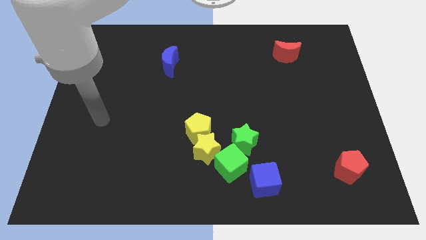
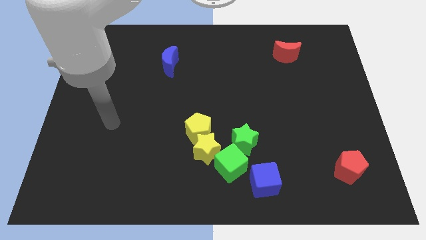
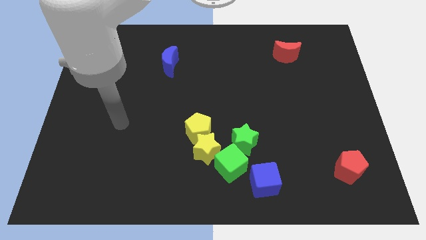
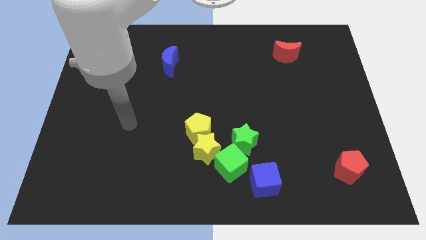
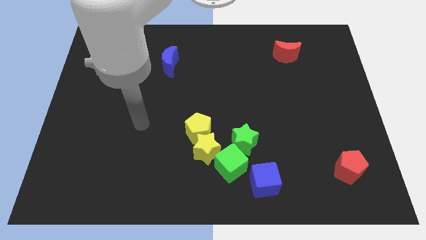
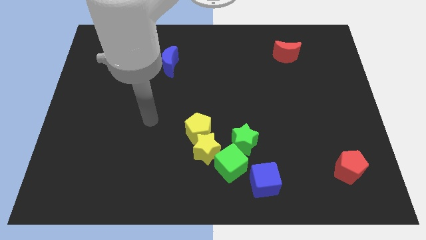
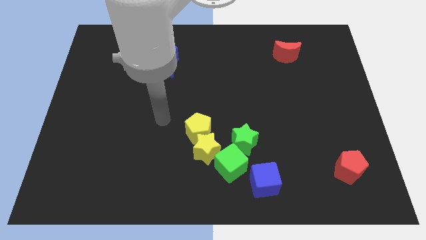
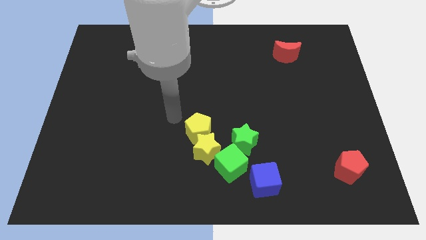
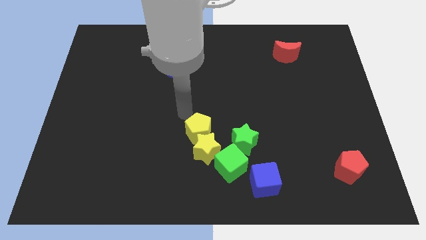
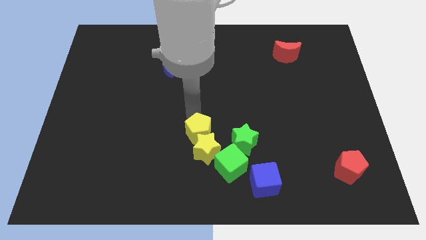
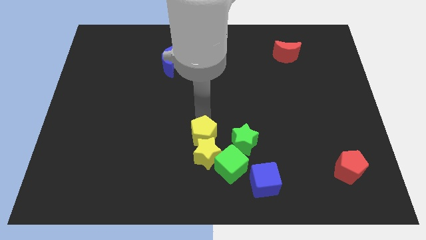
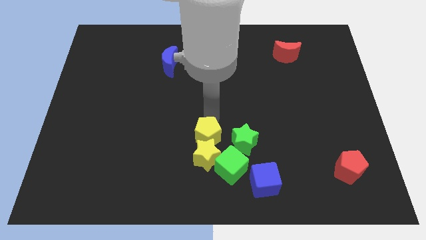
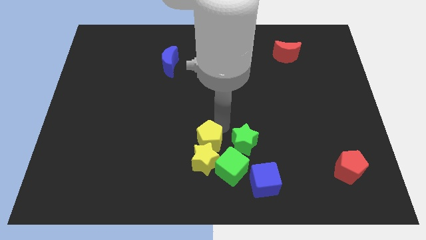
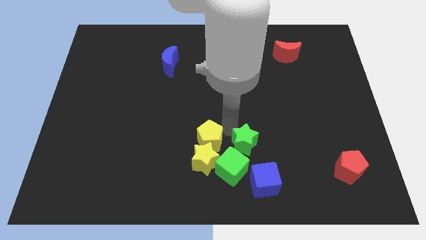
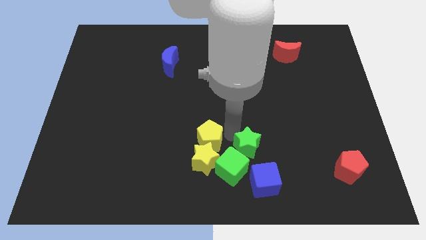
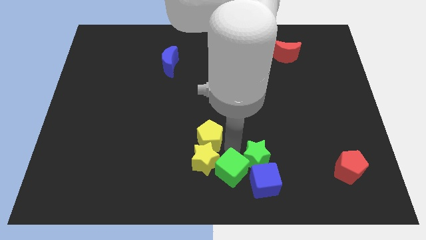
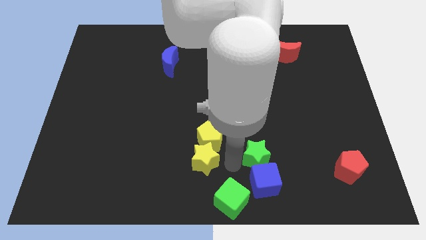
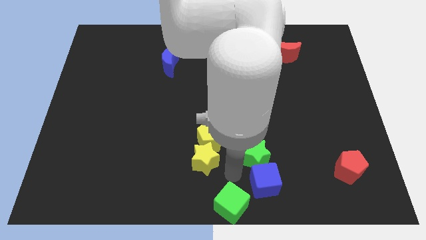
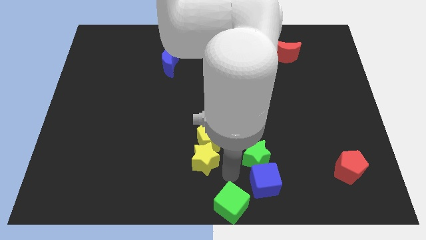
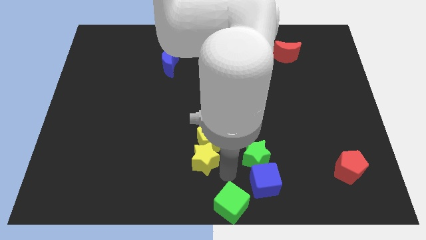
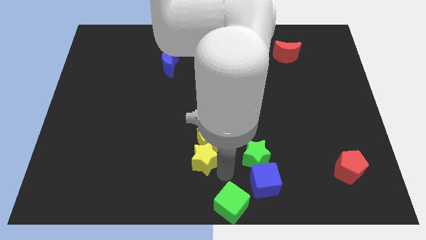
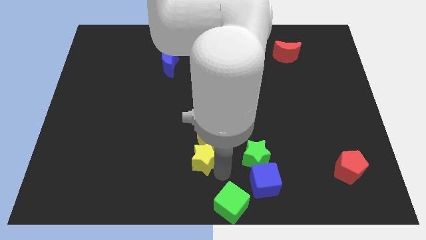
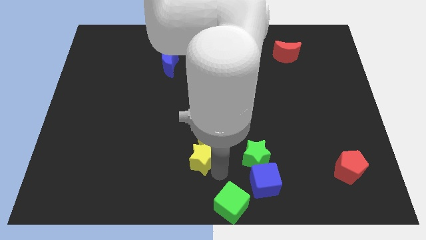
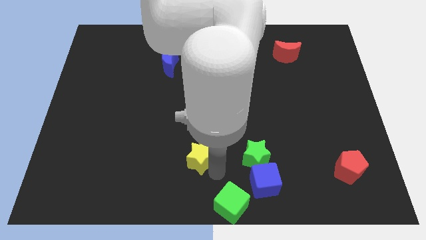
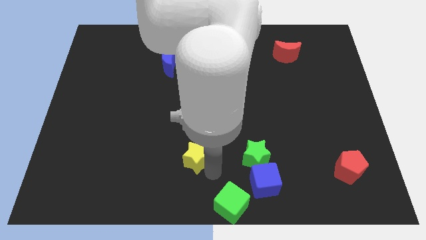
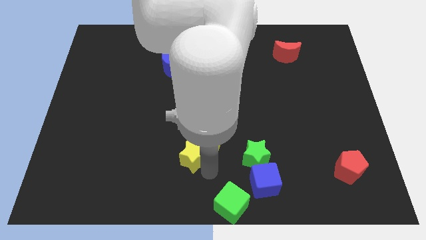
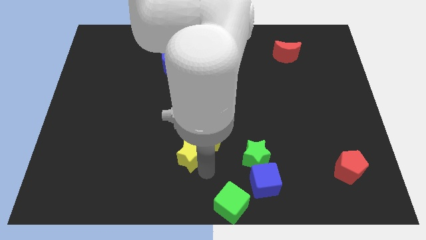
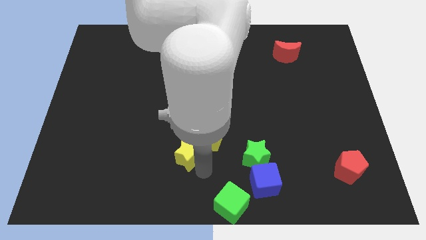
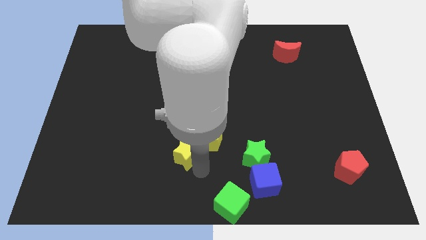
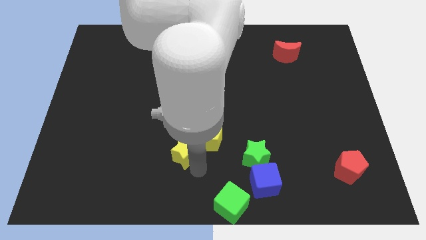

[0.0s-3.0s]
pull the yellow star apart from the group

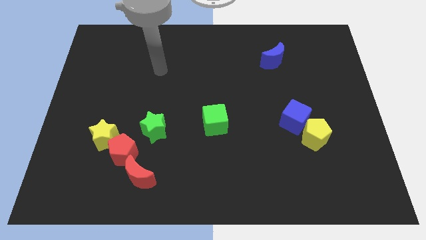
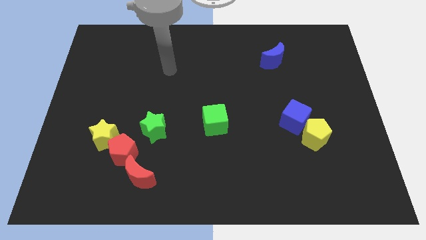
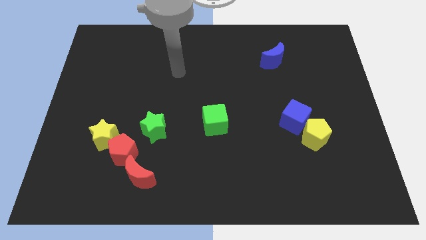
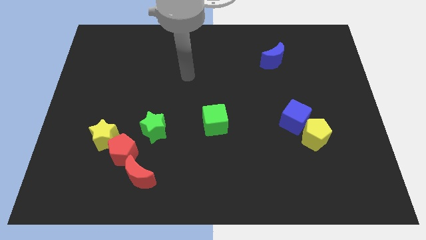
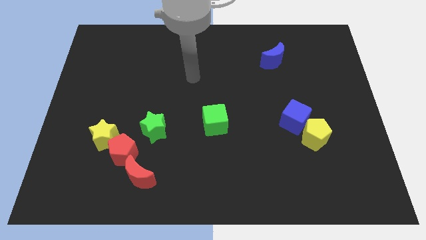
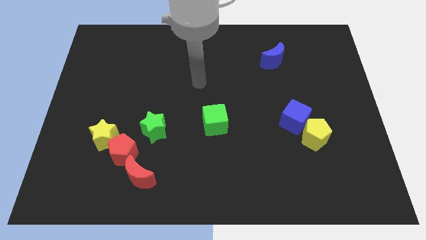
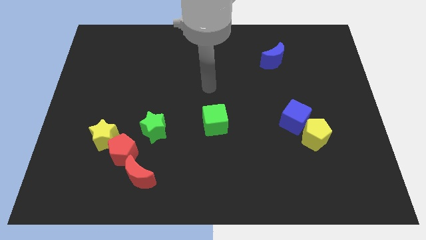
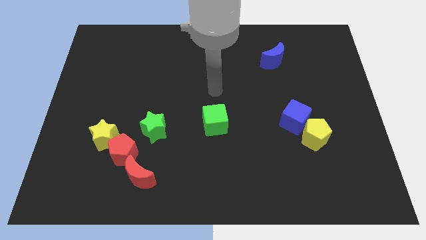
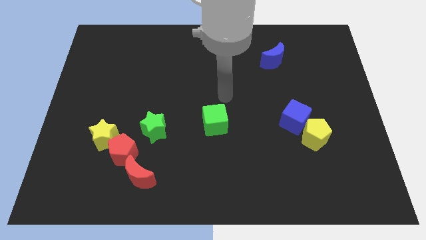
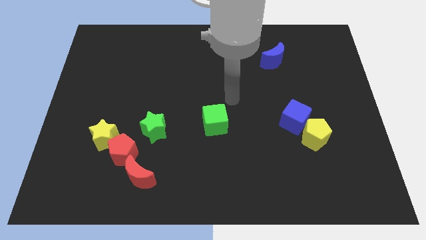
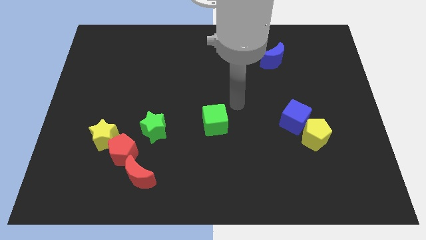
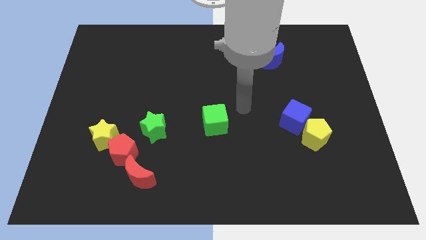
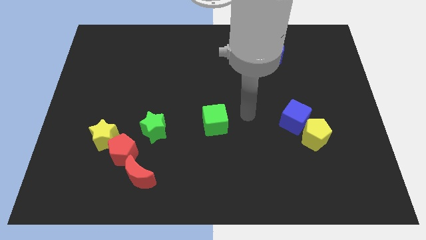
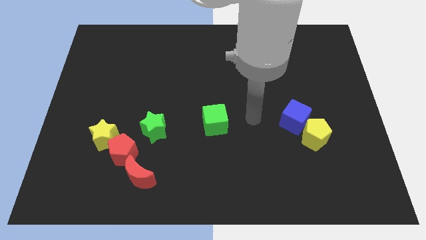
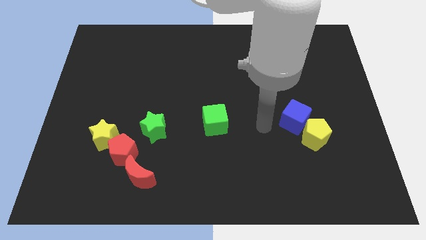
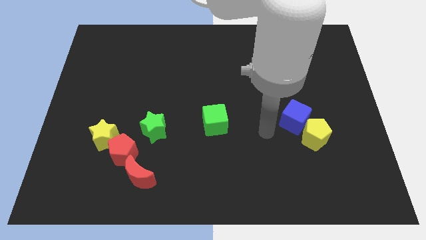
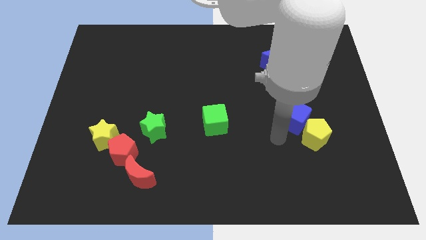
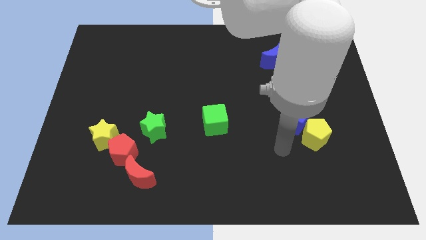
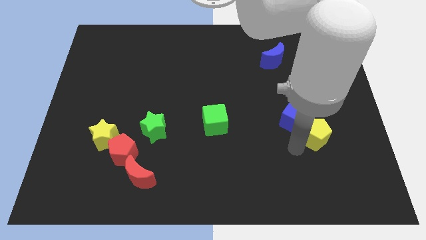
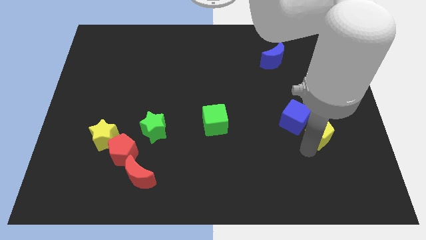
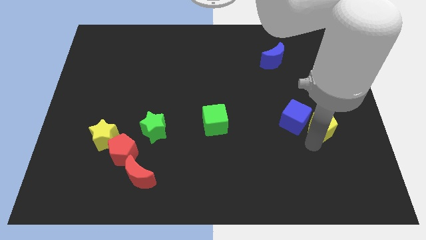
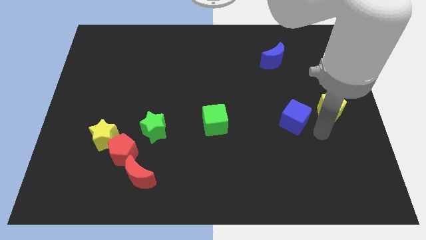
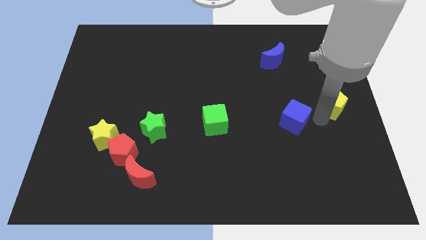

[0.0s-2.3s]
pull the blue cube apart from the yellow pentagon

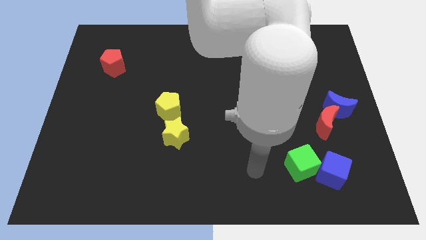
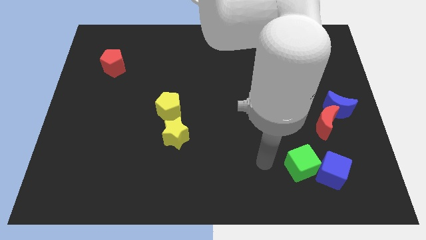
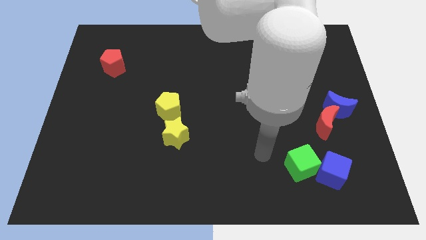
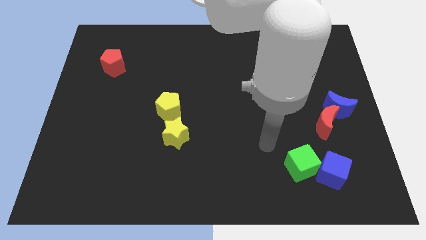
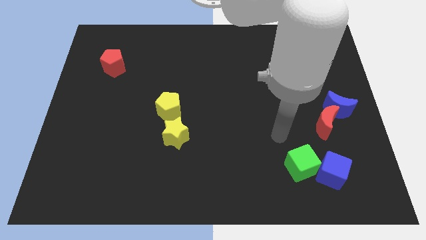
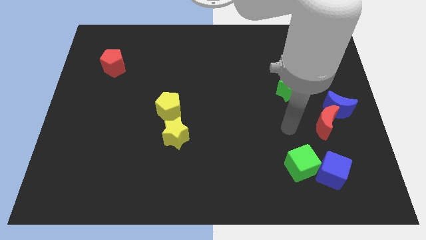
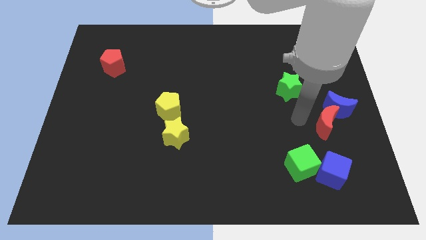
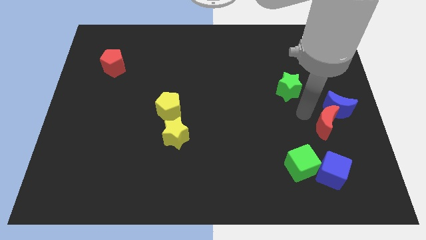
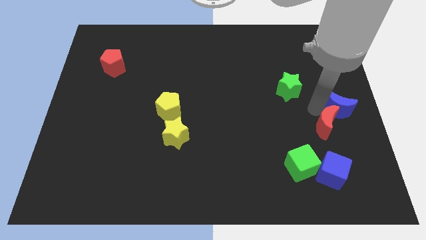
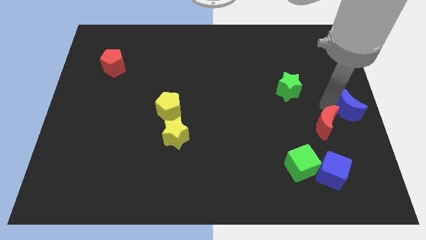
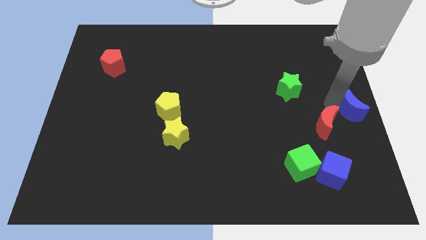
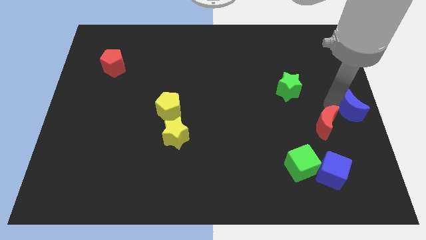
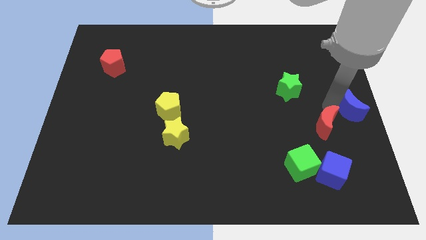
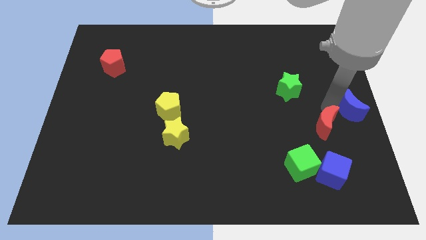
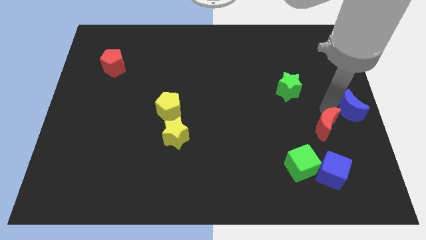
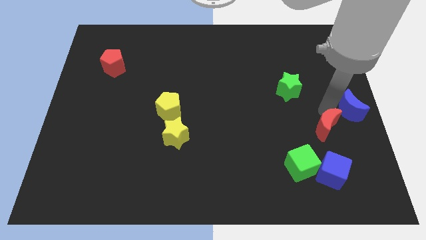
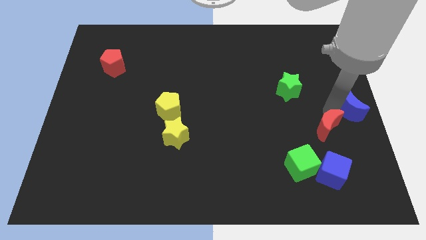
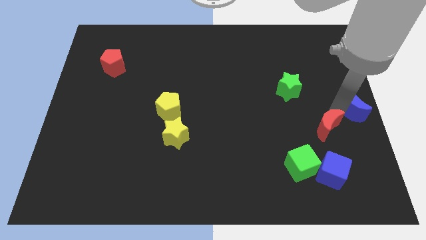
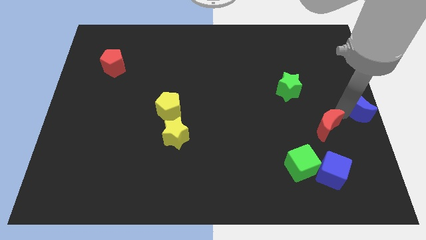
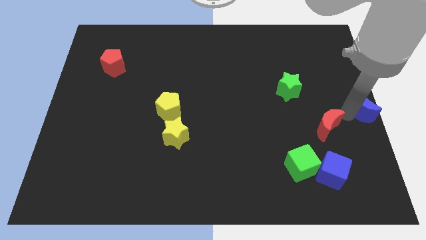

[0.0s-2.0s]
move the red moon away from the blue moon

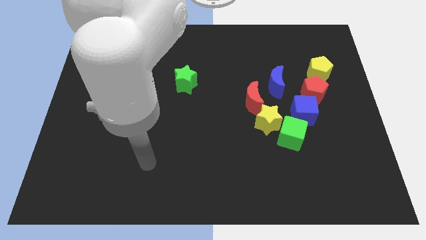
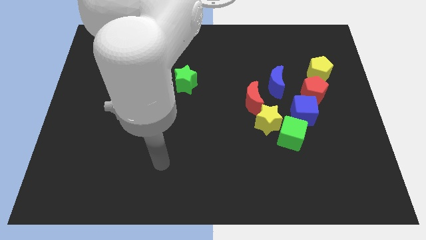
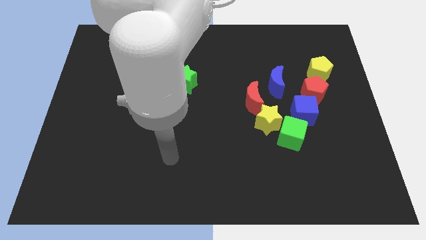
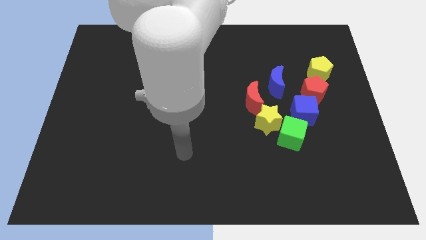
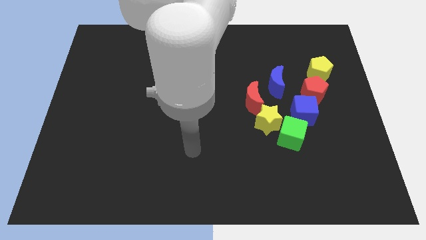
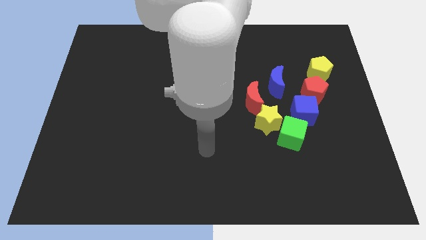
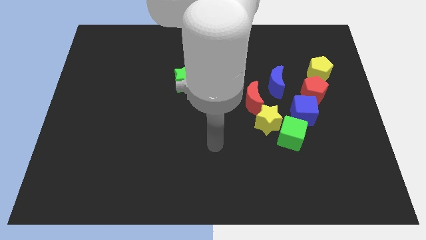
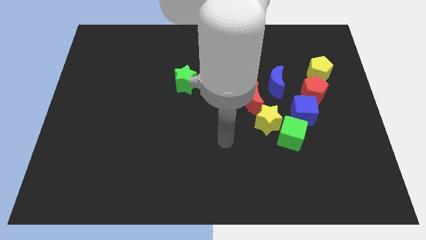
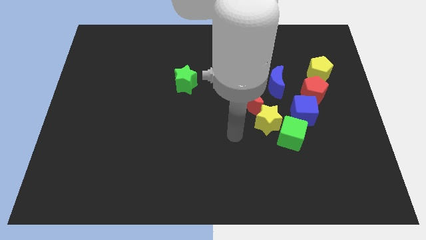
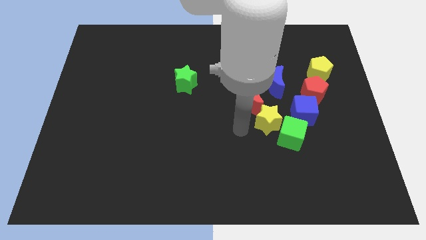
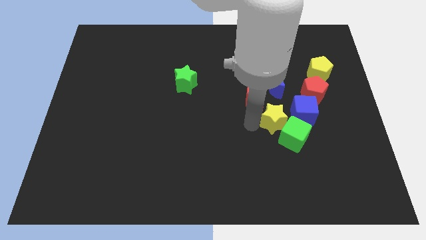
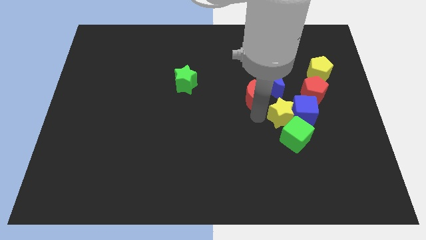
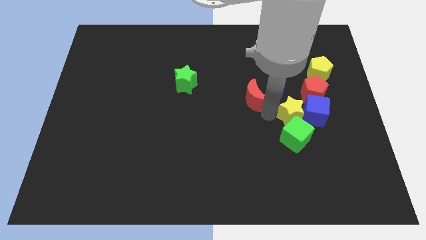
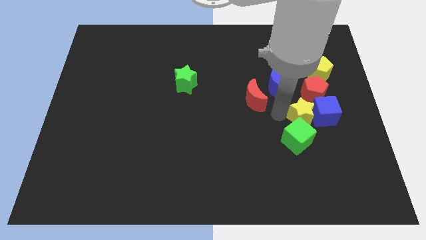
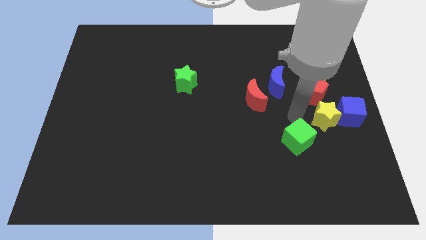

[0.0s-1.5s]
move the green cube away from the yellow star and blue cube

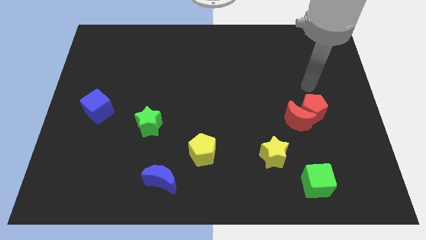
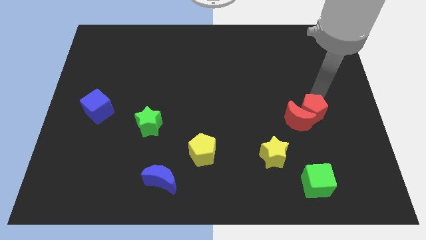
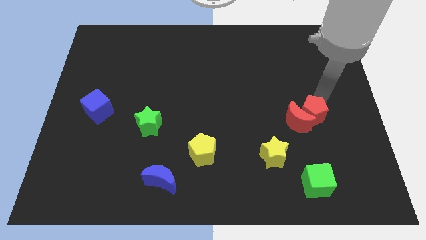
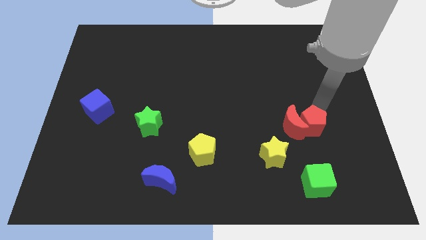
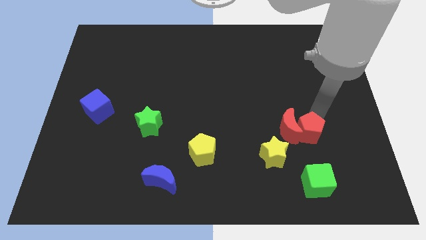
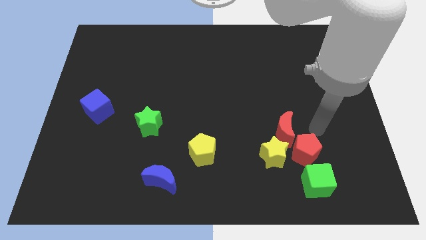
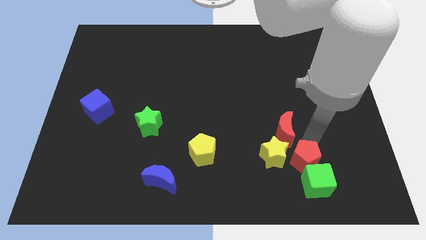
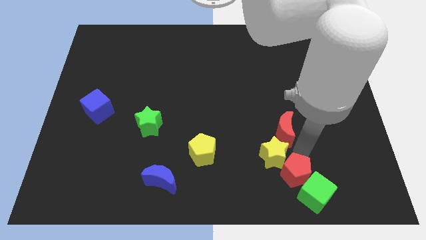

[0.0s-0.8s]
pull the red moon apart from the red pentagon
